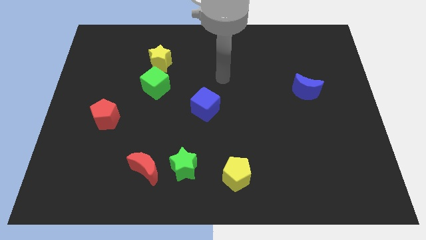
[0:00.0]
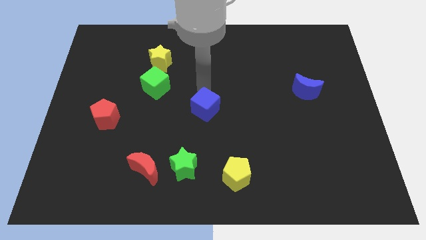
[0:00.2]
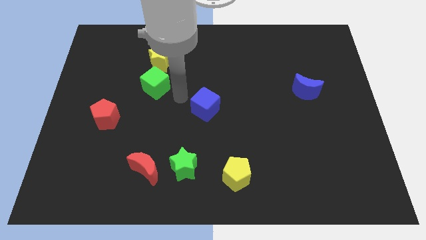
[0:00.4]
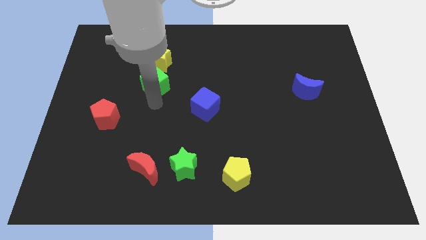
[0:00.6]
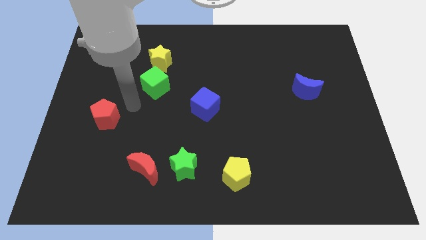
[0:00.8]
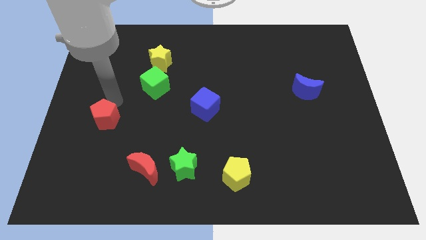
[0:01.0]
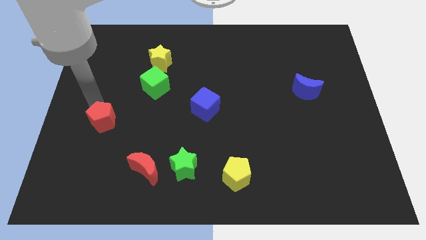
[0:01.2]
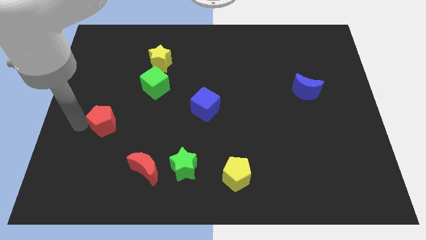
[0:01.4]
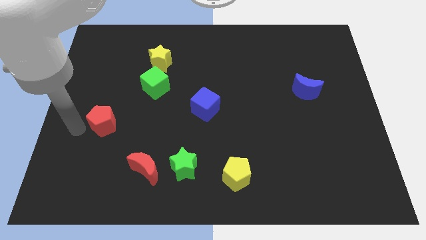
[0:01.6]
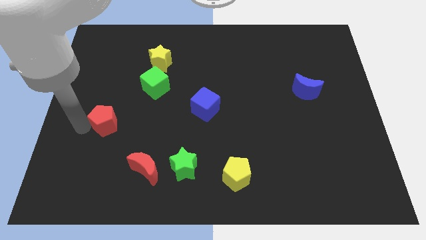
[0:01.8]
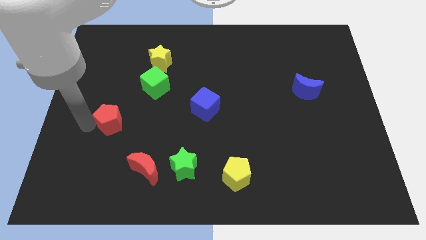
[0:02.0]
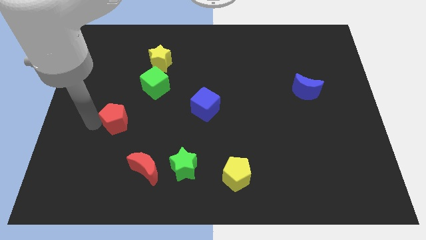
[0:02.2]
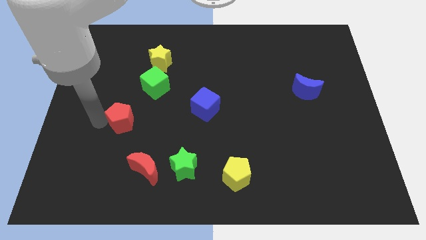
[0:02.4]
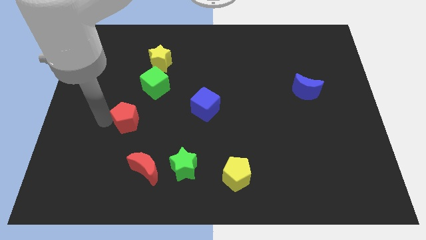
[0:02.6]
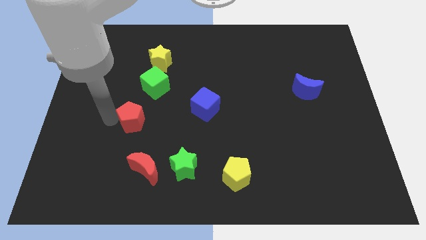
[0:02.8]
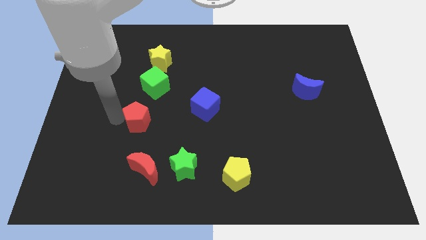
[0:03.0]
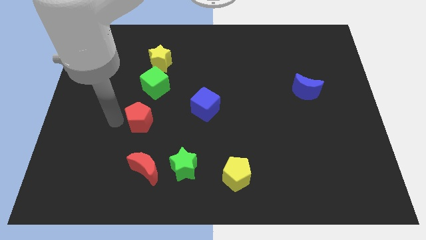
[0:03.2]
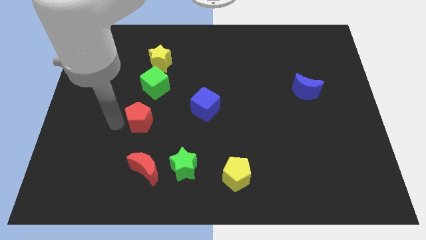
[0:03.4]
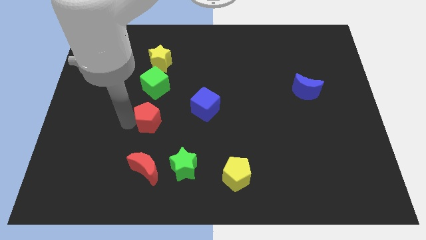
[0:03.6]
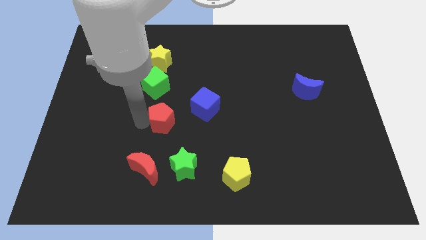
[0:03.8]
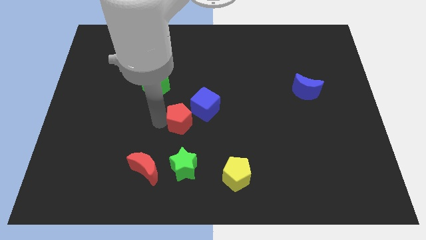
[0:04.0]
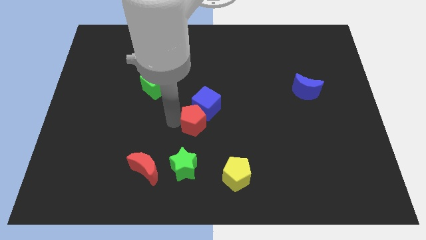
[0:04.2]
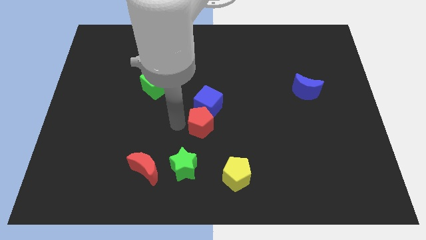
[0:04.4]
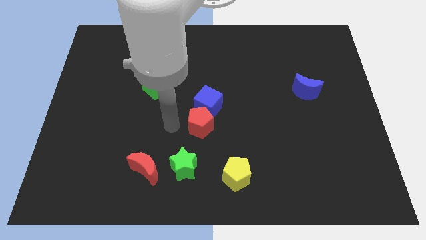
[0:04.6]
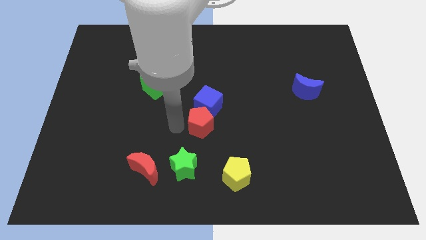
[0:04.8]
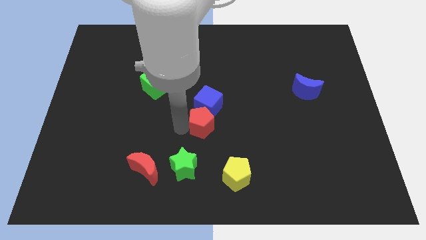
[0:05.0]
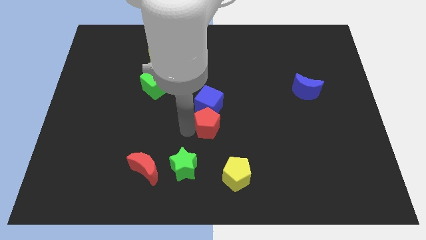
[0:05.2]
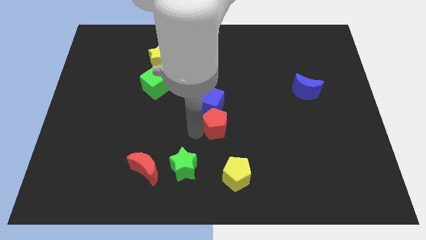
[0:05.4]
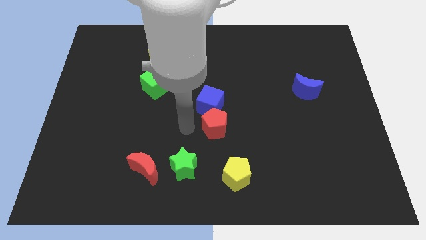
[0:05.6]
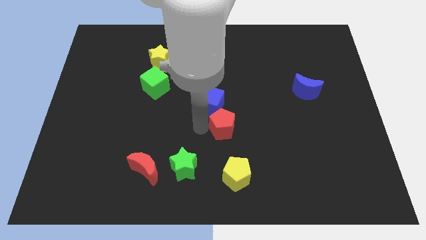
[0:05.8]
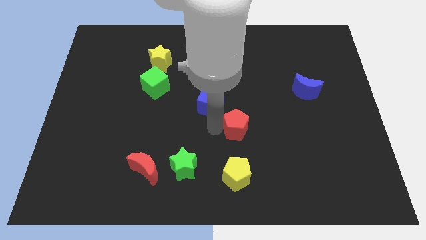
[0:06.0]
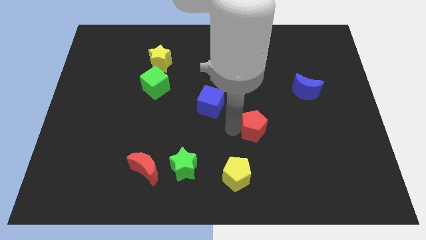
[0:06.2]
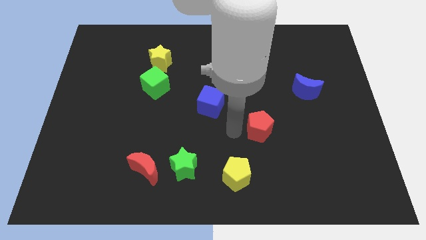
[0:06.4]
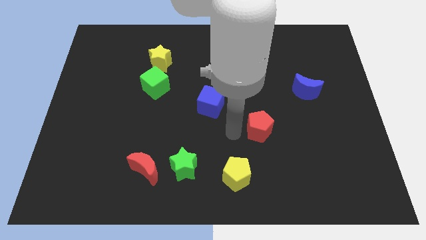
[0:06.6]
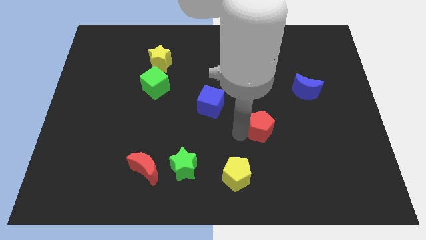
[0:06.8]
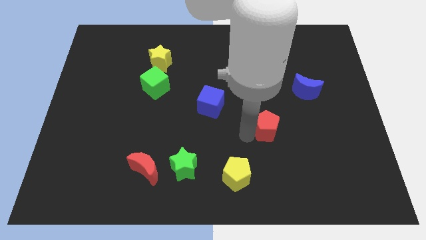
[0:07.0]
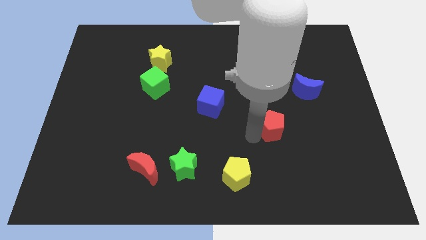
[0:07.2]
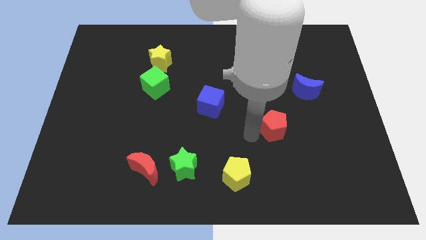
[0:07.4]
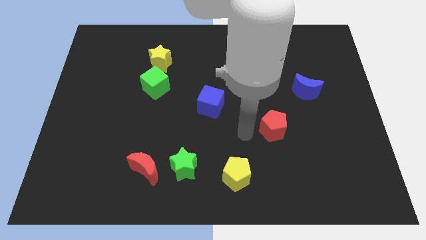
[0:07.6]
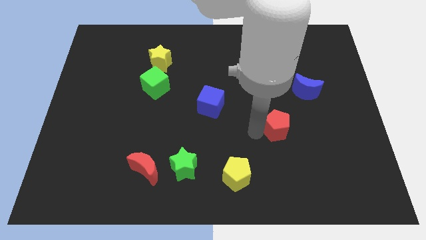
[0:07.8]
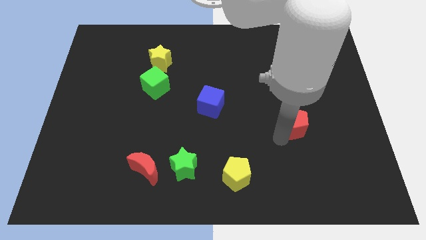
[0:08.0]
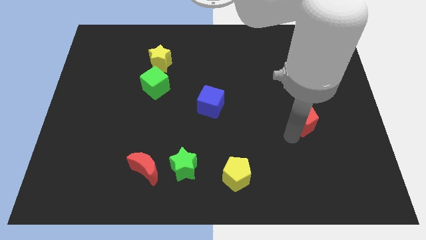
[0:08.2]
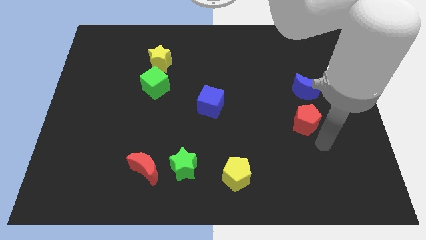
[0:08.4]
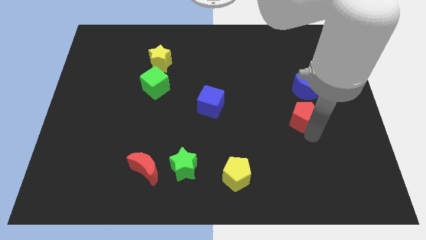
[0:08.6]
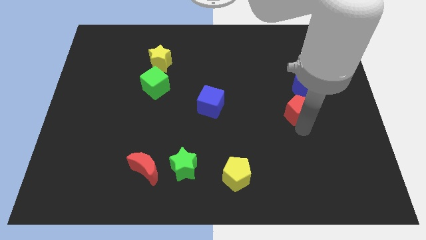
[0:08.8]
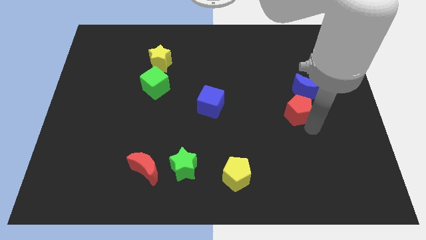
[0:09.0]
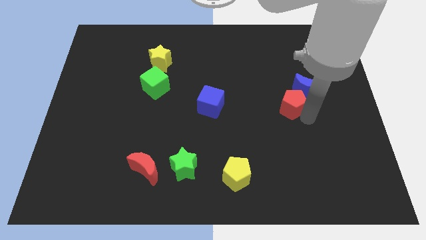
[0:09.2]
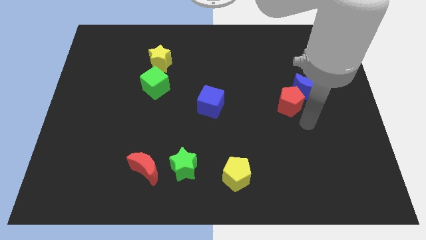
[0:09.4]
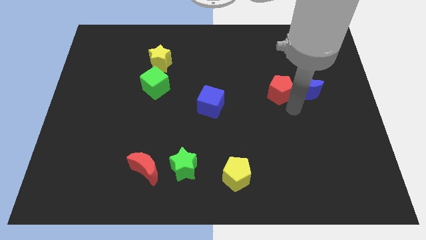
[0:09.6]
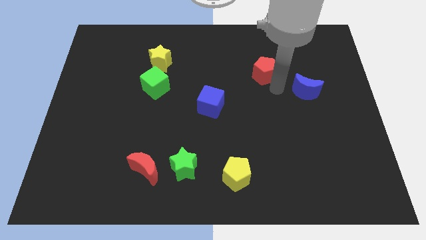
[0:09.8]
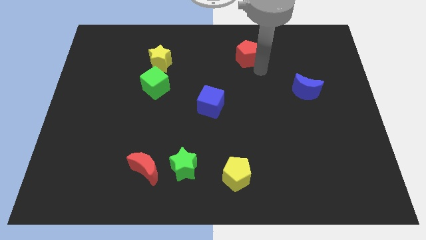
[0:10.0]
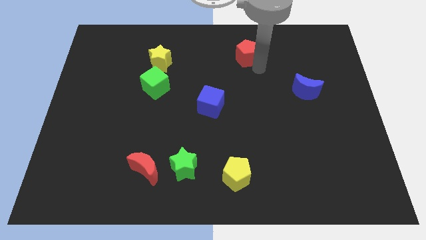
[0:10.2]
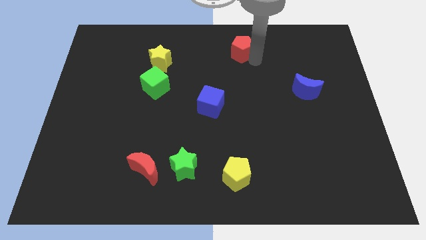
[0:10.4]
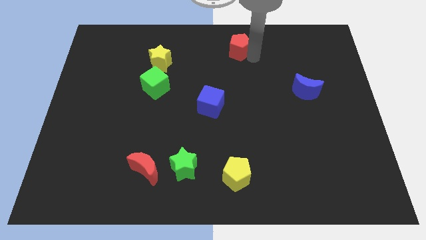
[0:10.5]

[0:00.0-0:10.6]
move the red pentagon to the top side

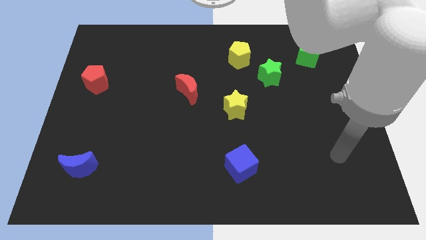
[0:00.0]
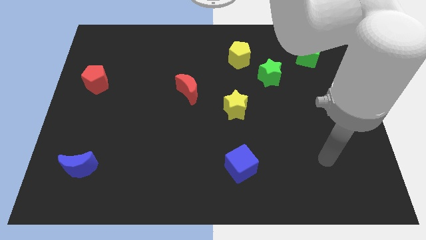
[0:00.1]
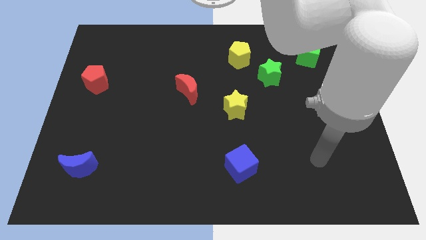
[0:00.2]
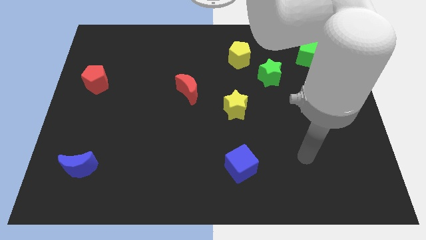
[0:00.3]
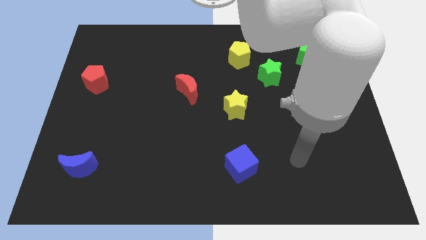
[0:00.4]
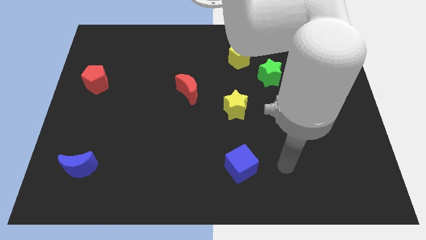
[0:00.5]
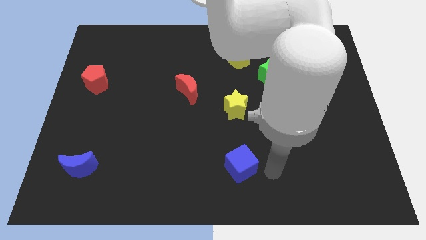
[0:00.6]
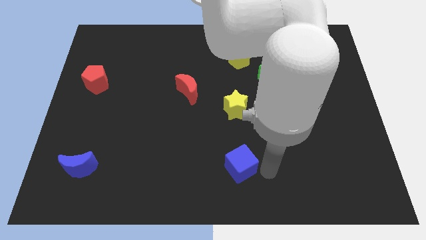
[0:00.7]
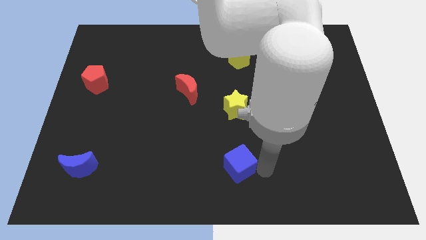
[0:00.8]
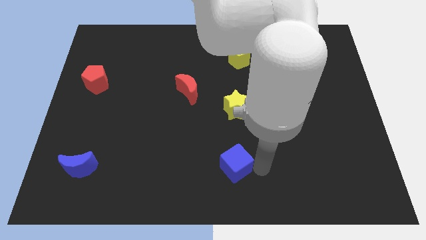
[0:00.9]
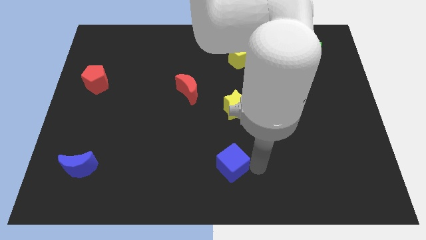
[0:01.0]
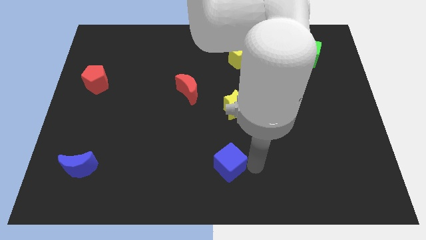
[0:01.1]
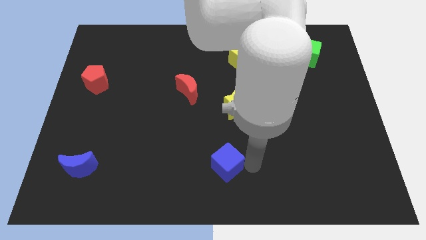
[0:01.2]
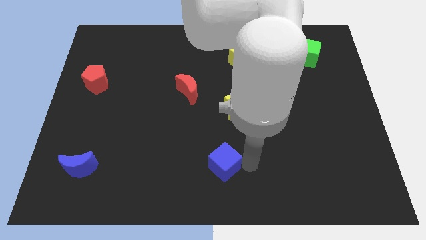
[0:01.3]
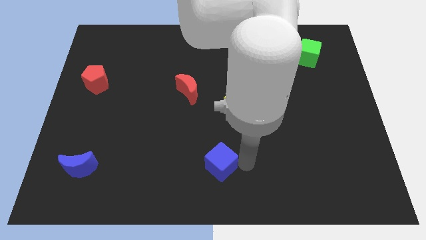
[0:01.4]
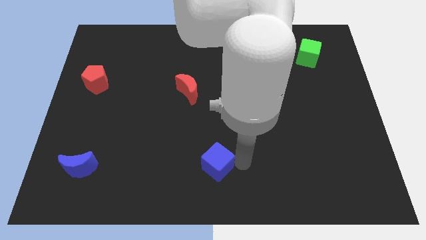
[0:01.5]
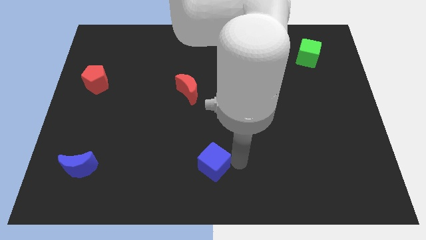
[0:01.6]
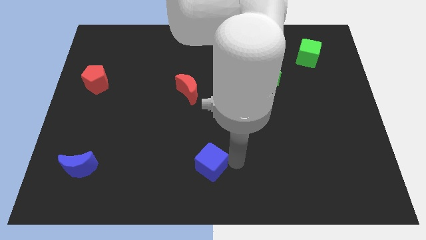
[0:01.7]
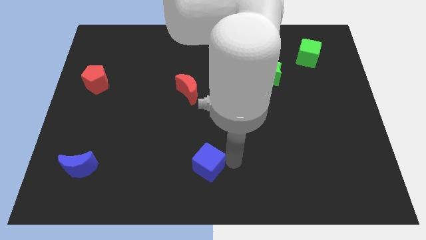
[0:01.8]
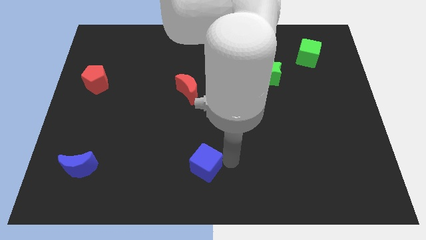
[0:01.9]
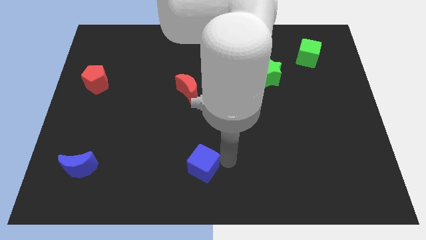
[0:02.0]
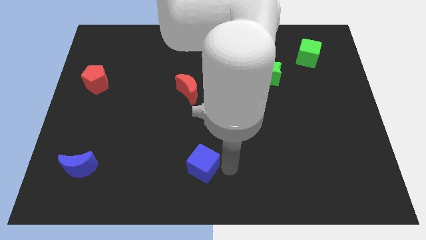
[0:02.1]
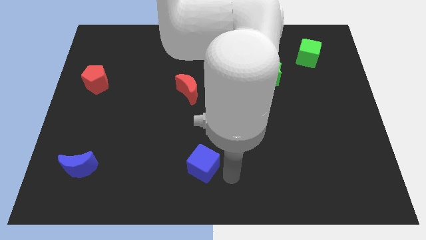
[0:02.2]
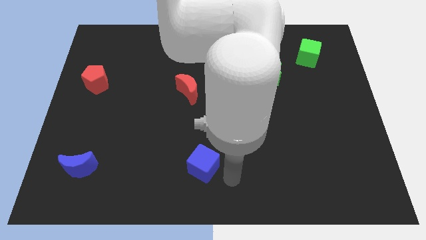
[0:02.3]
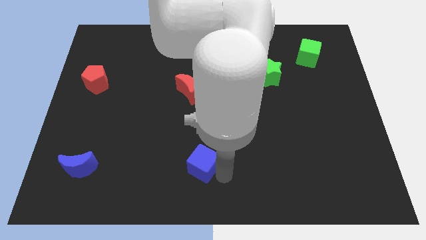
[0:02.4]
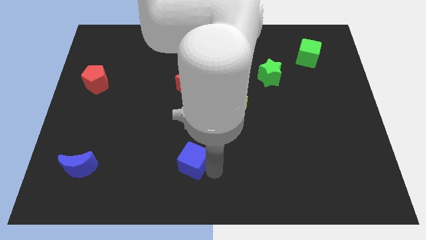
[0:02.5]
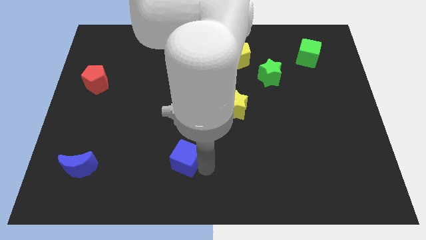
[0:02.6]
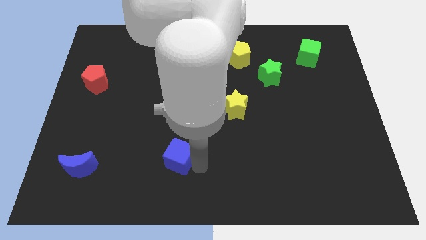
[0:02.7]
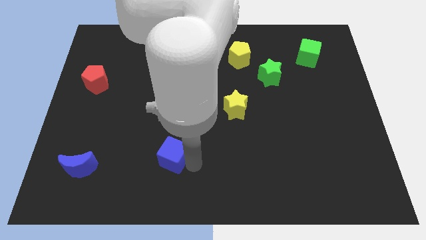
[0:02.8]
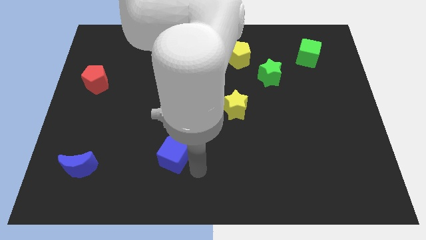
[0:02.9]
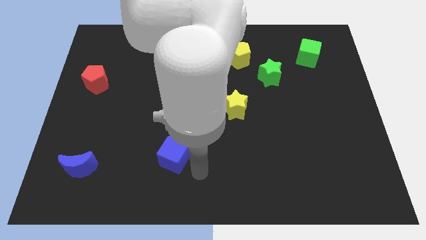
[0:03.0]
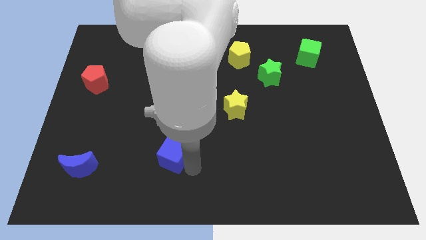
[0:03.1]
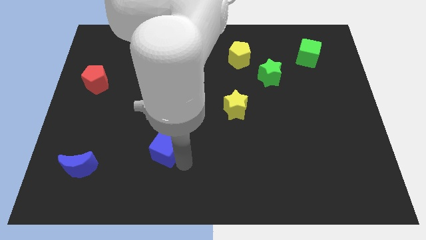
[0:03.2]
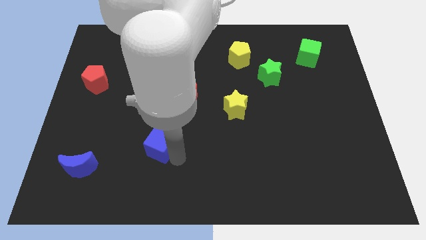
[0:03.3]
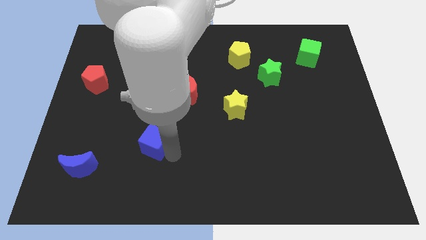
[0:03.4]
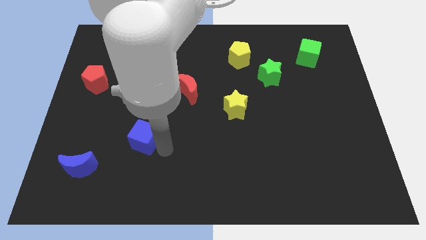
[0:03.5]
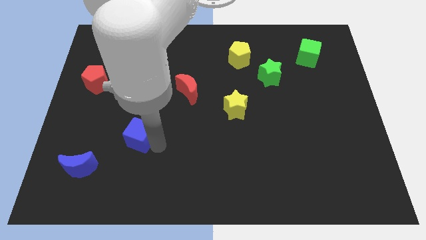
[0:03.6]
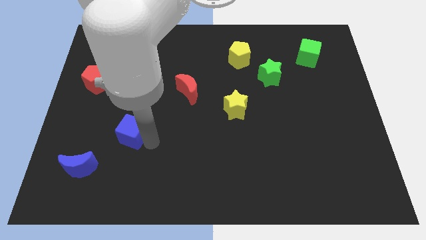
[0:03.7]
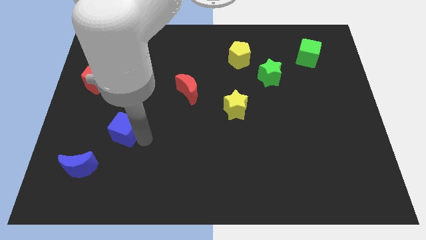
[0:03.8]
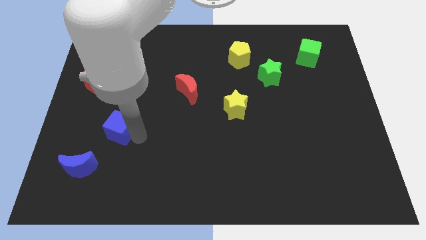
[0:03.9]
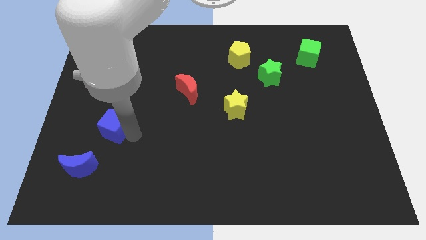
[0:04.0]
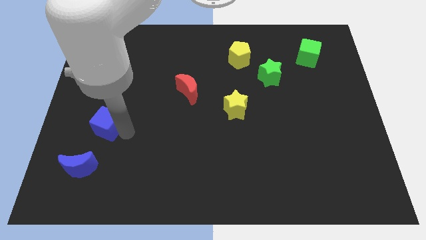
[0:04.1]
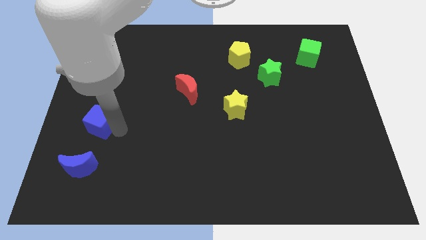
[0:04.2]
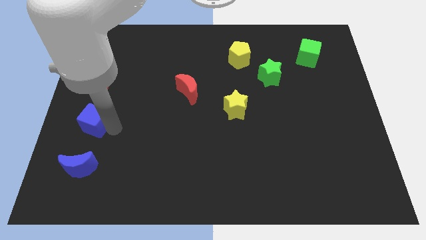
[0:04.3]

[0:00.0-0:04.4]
slide the blue cube to the left side of the board
